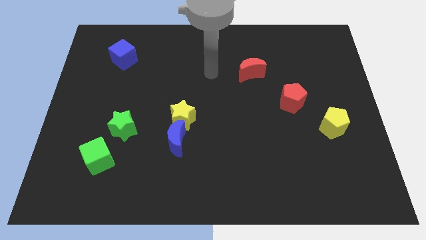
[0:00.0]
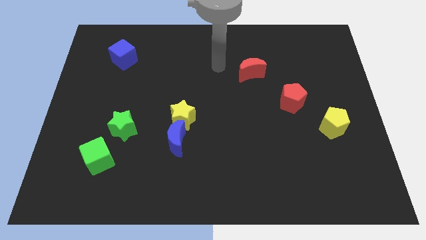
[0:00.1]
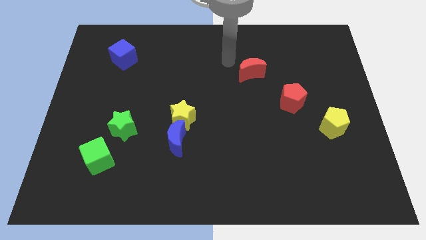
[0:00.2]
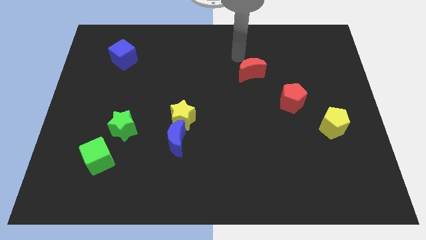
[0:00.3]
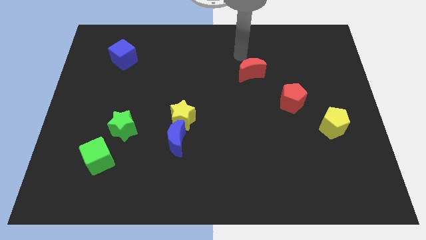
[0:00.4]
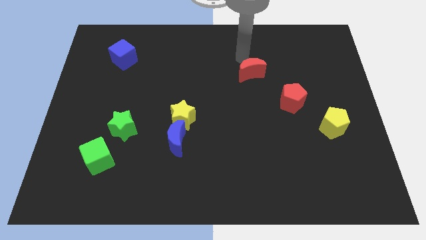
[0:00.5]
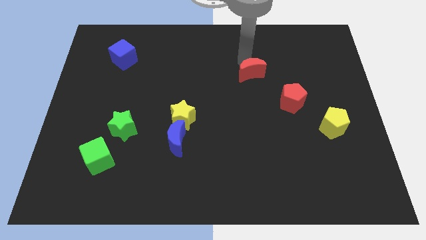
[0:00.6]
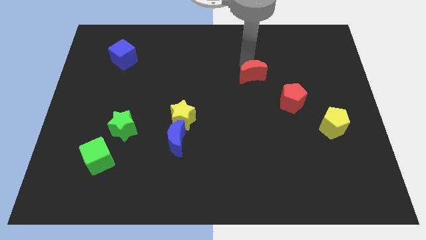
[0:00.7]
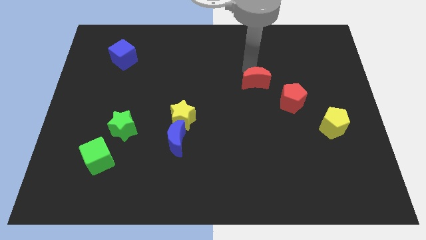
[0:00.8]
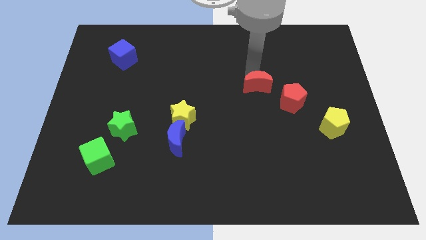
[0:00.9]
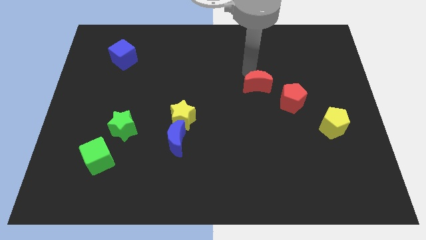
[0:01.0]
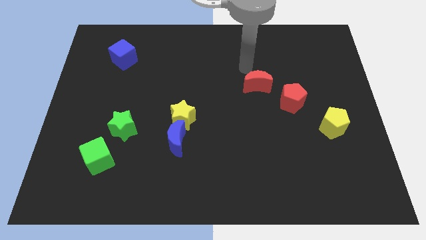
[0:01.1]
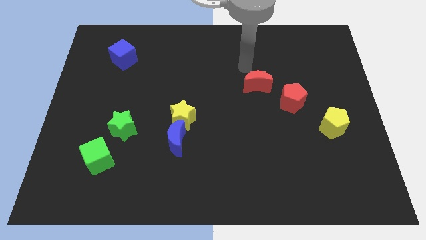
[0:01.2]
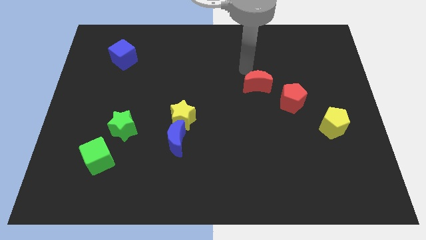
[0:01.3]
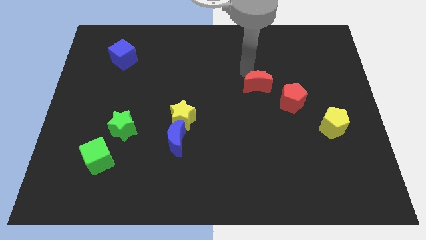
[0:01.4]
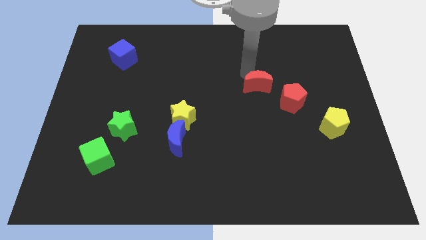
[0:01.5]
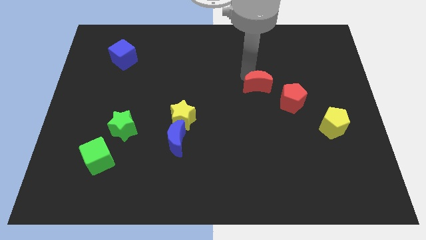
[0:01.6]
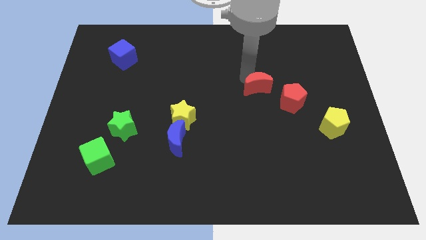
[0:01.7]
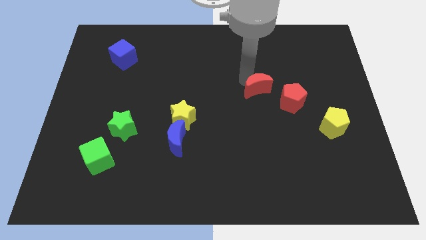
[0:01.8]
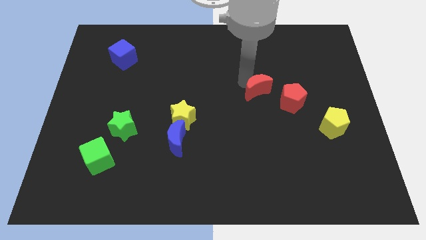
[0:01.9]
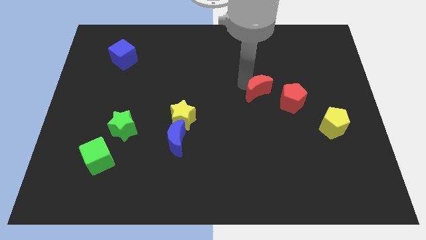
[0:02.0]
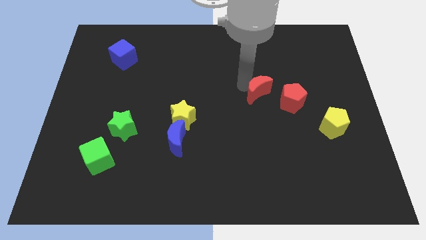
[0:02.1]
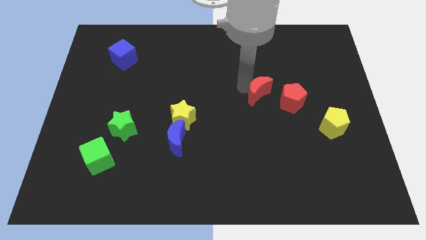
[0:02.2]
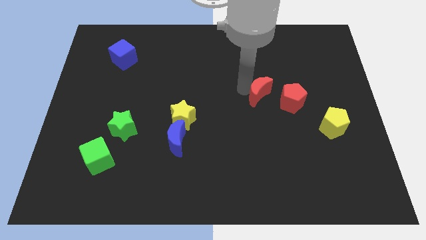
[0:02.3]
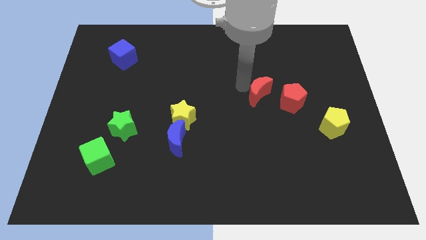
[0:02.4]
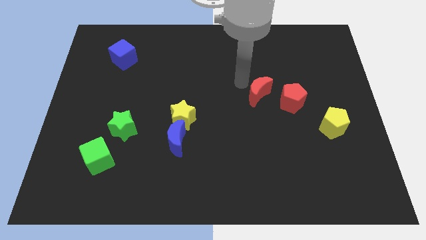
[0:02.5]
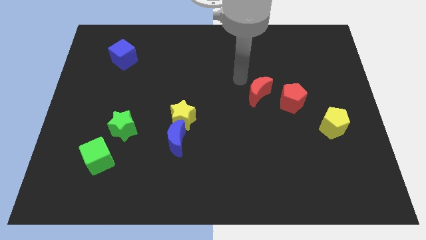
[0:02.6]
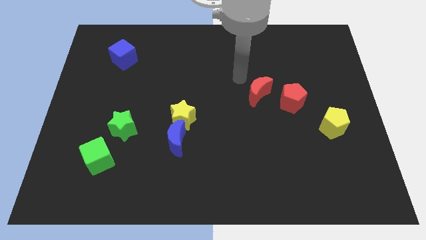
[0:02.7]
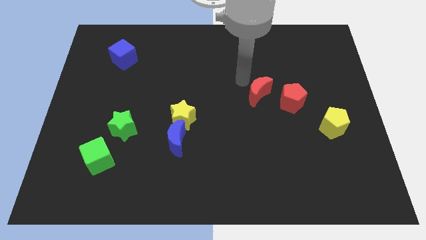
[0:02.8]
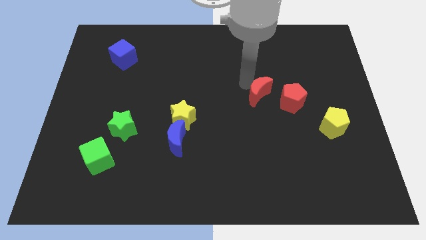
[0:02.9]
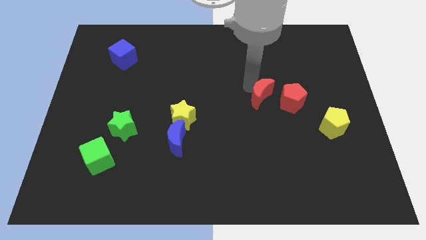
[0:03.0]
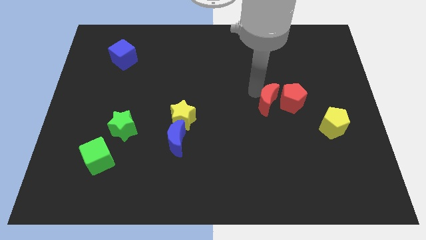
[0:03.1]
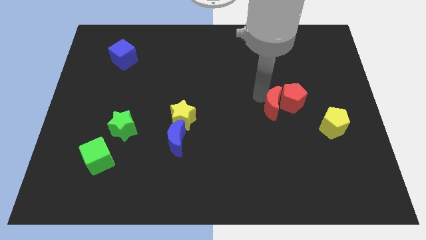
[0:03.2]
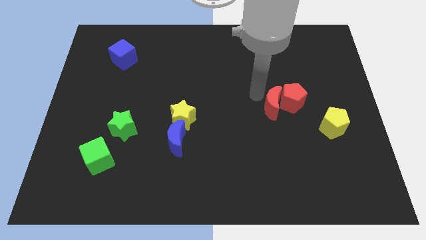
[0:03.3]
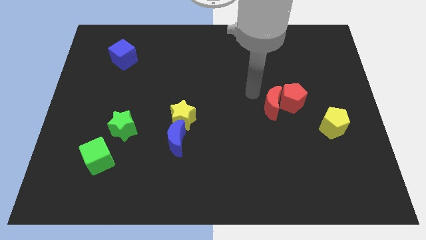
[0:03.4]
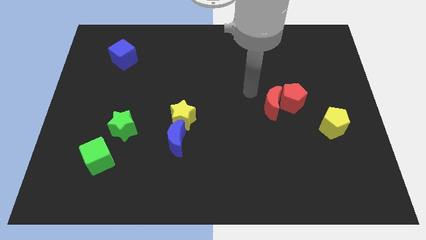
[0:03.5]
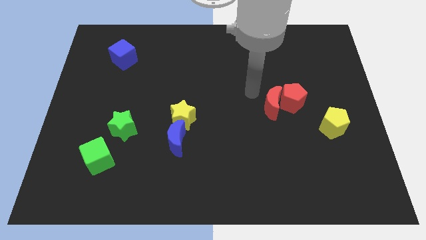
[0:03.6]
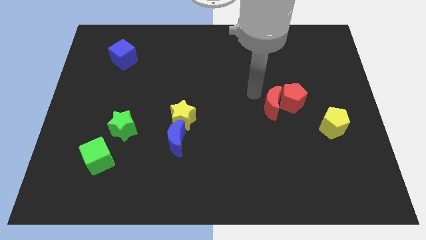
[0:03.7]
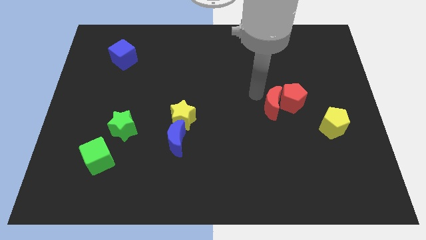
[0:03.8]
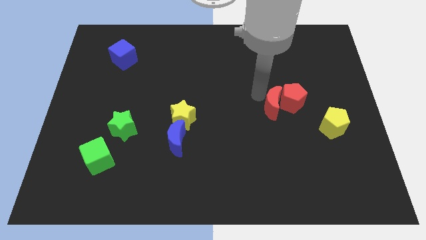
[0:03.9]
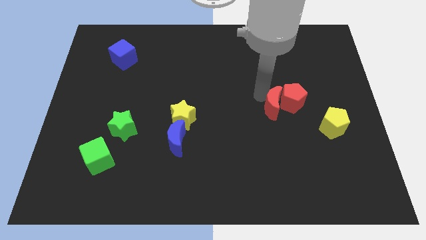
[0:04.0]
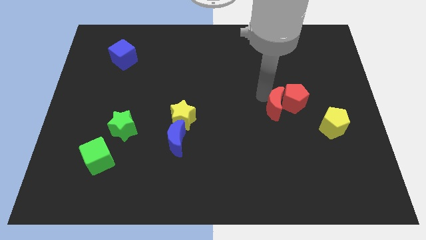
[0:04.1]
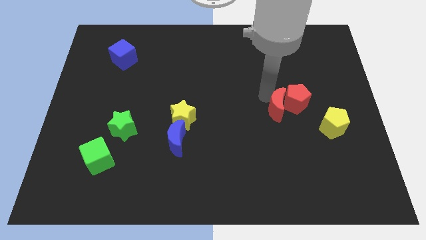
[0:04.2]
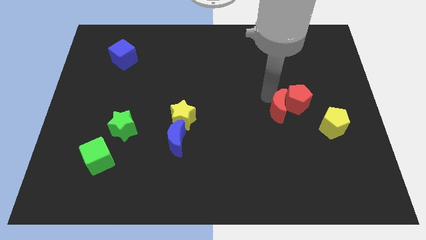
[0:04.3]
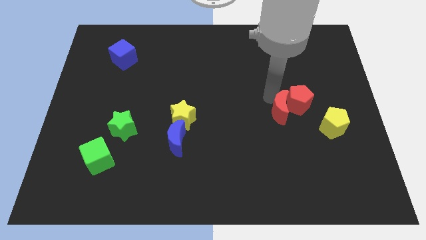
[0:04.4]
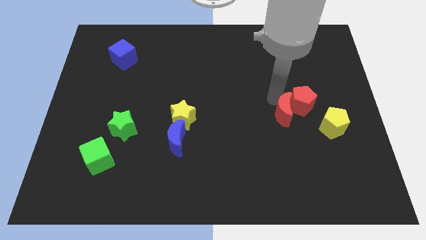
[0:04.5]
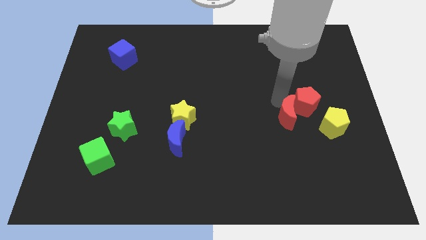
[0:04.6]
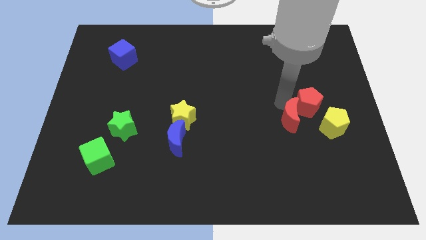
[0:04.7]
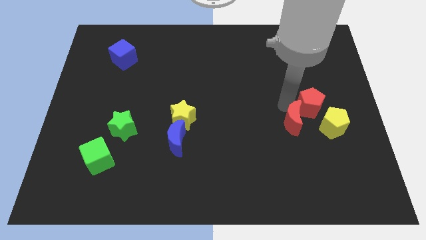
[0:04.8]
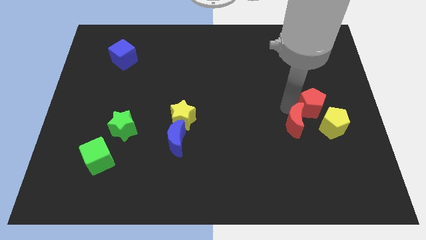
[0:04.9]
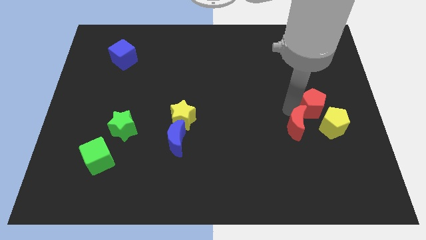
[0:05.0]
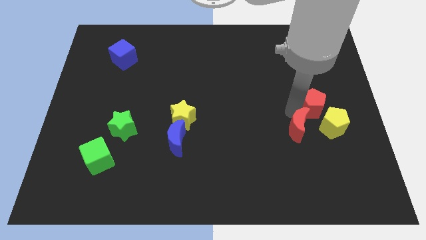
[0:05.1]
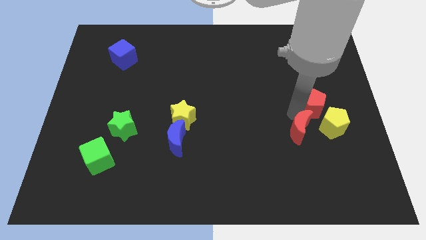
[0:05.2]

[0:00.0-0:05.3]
put the red moon to the bottom left side of the yellow pentagon

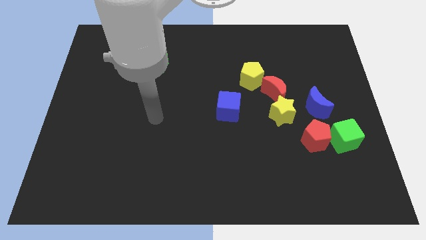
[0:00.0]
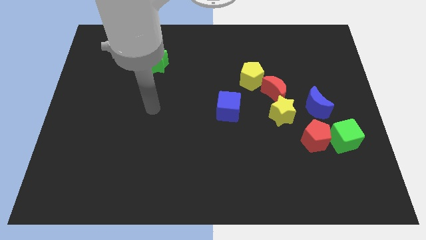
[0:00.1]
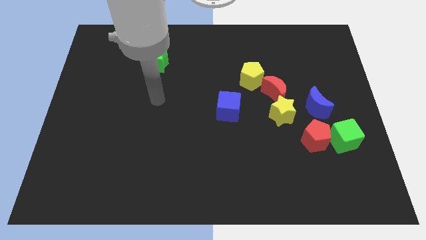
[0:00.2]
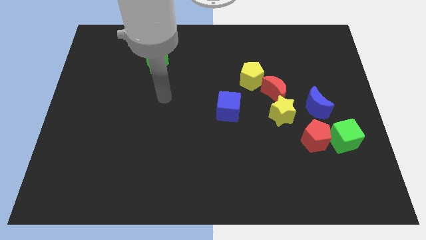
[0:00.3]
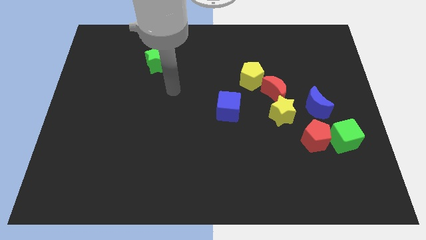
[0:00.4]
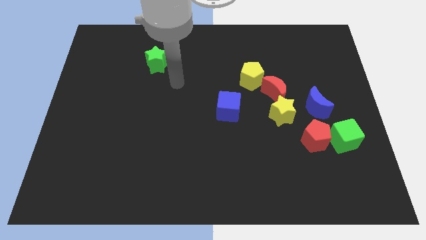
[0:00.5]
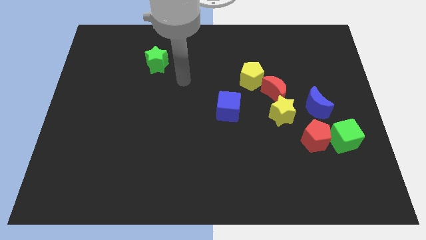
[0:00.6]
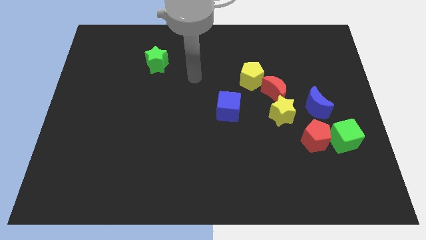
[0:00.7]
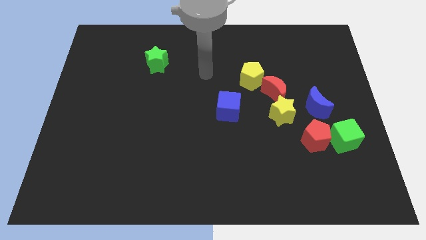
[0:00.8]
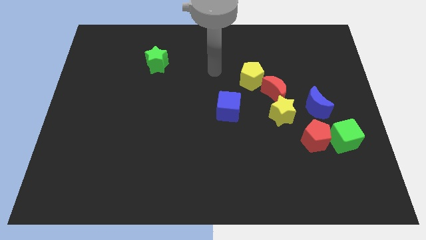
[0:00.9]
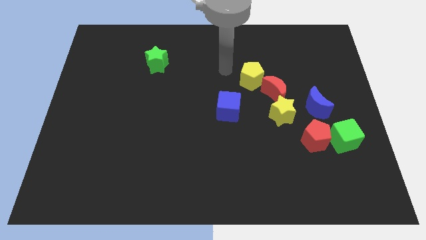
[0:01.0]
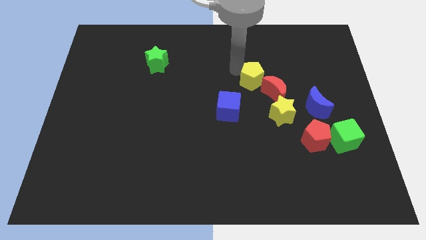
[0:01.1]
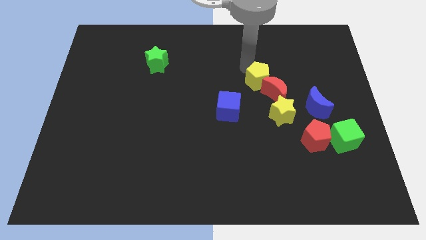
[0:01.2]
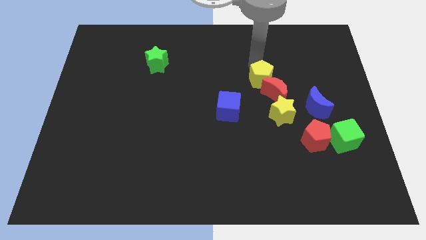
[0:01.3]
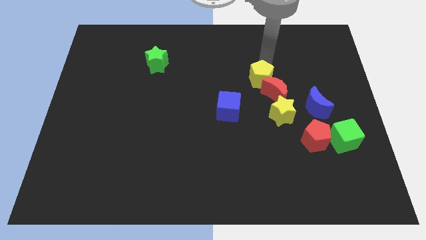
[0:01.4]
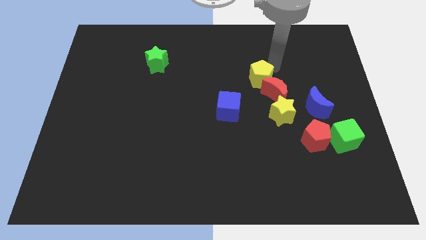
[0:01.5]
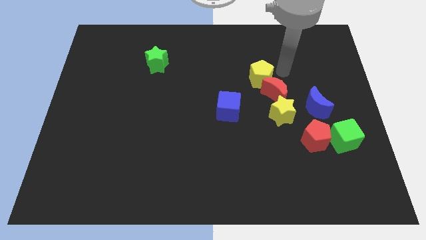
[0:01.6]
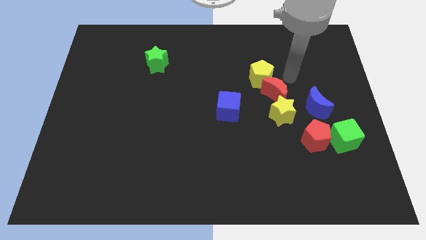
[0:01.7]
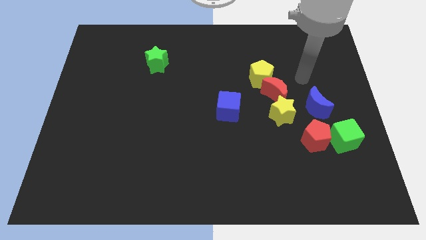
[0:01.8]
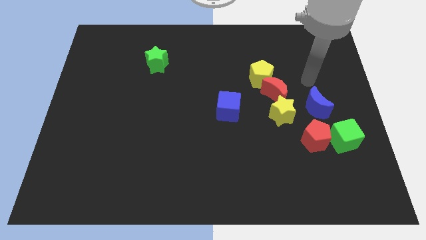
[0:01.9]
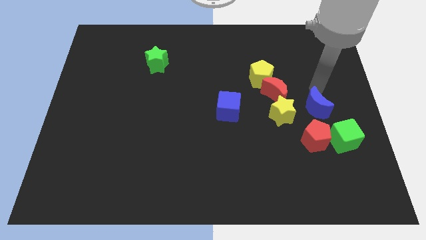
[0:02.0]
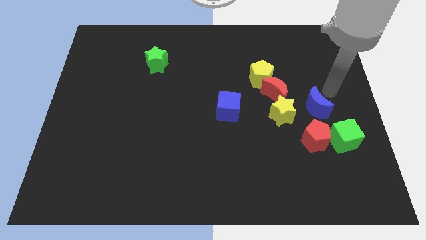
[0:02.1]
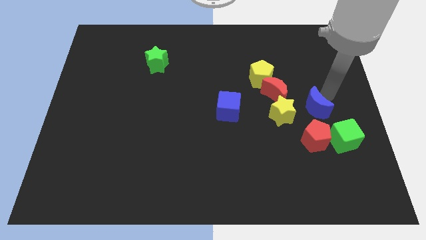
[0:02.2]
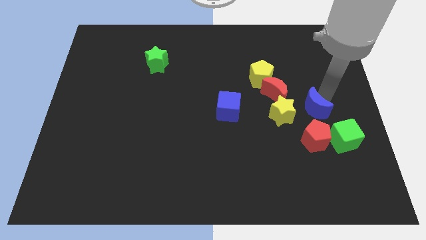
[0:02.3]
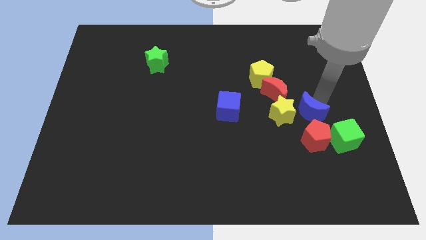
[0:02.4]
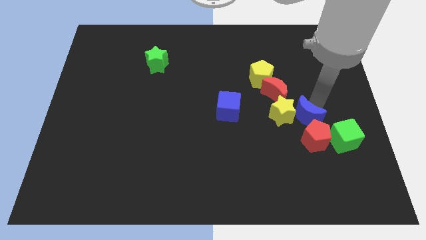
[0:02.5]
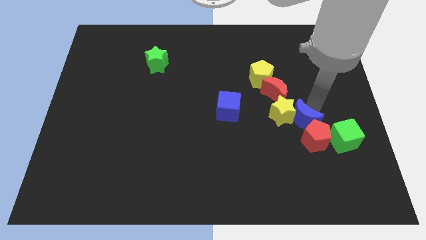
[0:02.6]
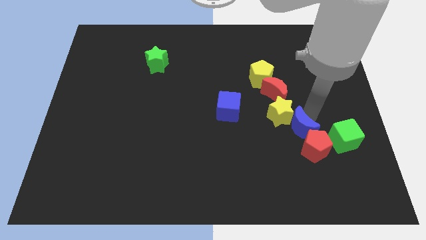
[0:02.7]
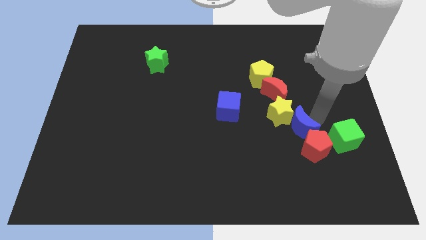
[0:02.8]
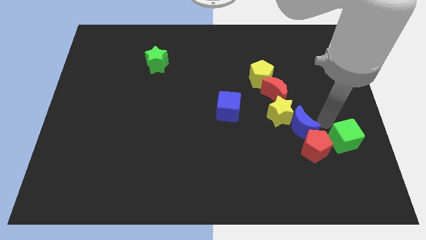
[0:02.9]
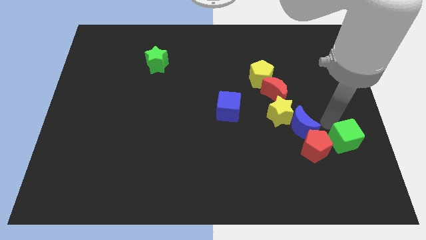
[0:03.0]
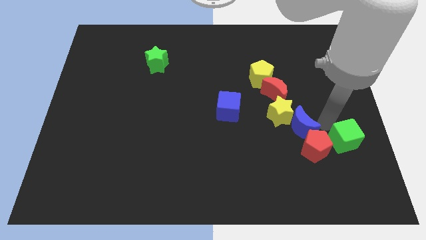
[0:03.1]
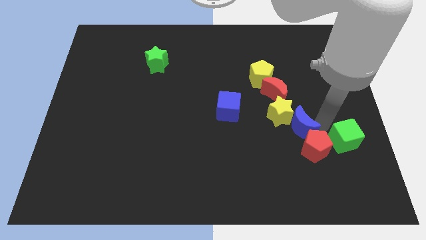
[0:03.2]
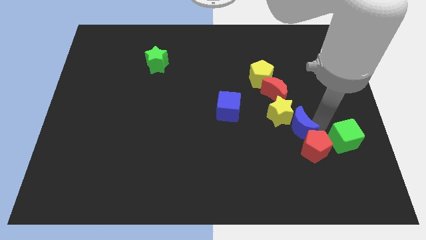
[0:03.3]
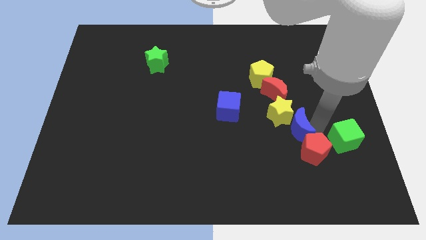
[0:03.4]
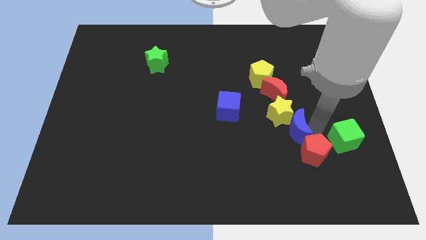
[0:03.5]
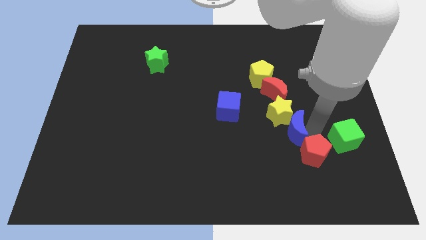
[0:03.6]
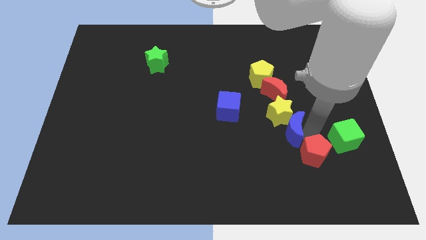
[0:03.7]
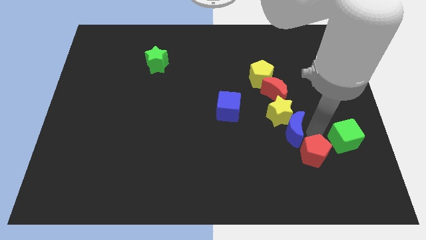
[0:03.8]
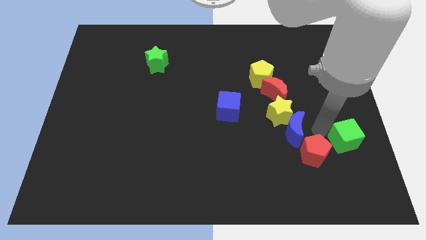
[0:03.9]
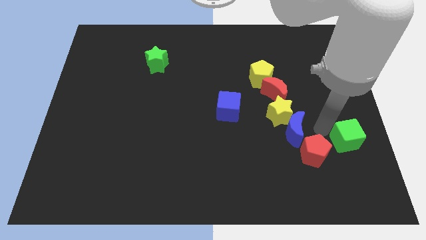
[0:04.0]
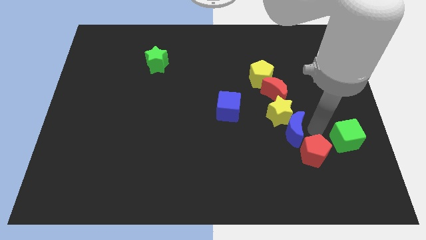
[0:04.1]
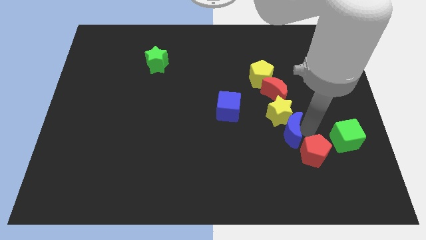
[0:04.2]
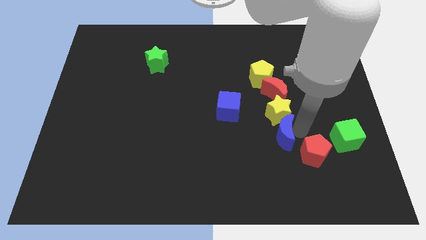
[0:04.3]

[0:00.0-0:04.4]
put the blue moon to the bottom left side of the yellow star
